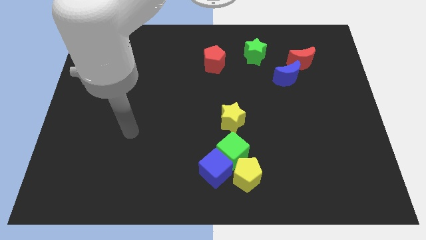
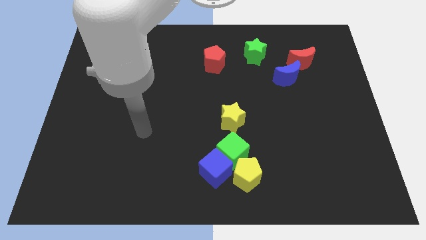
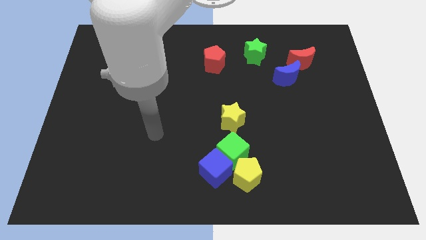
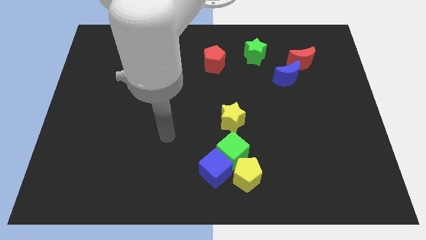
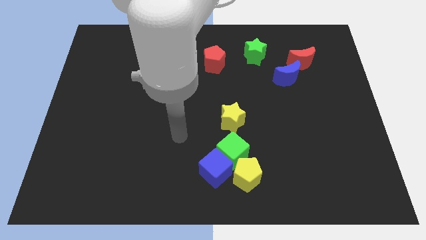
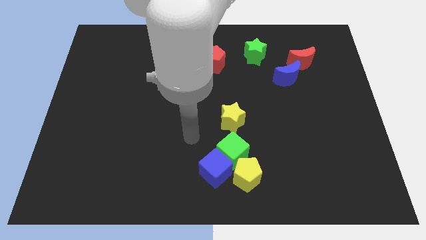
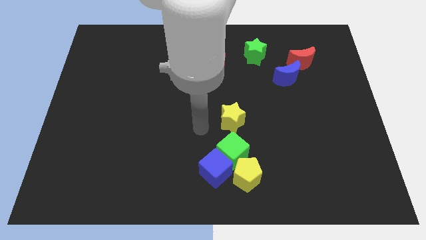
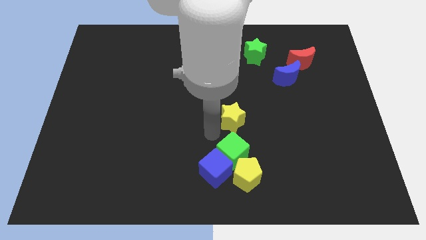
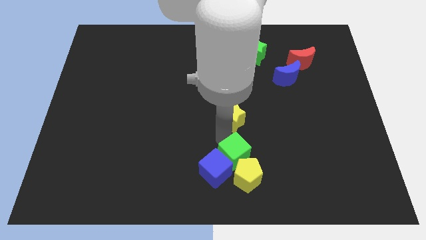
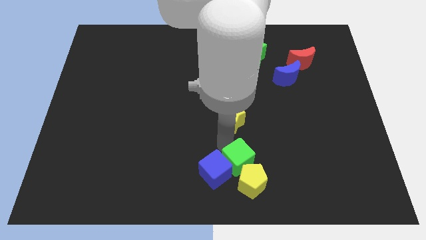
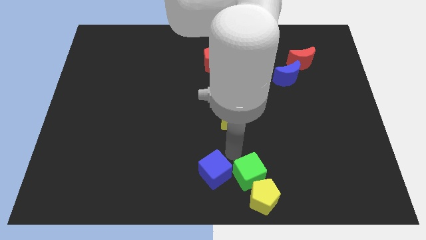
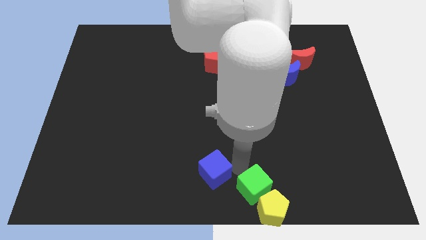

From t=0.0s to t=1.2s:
pull the blue cube apart from the green cube and yellow pentagon

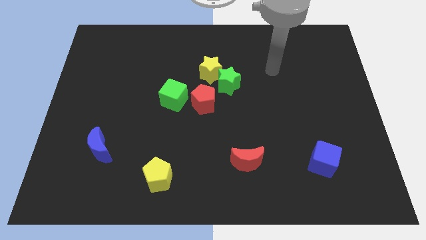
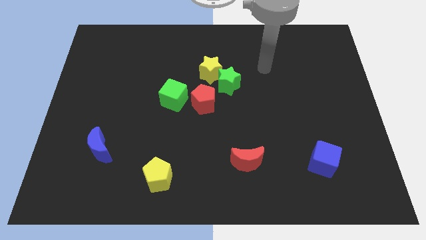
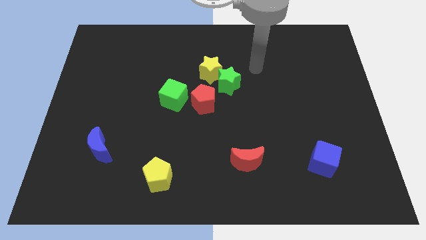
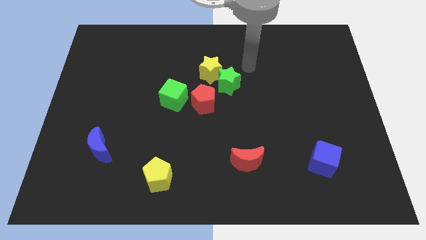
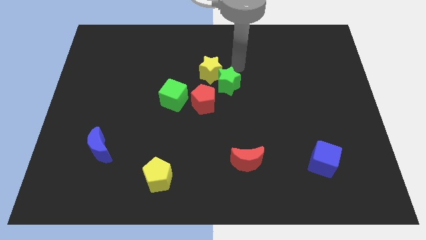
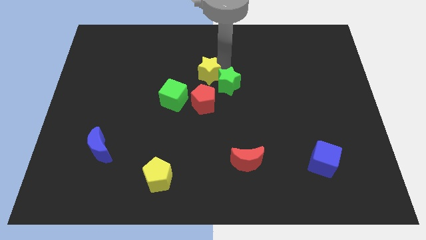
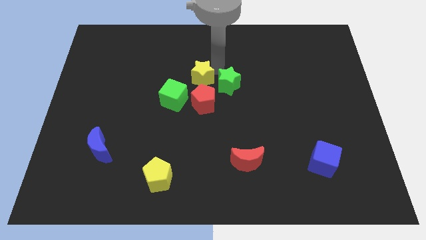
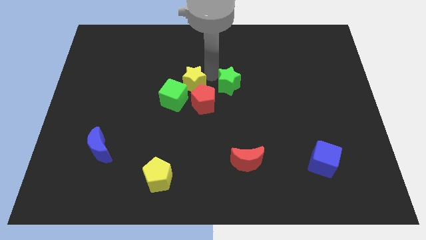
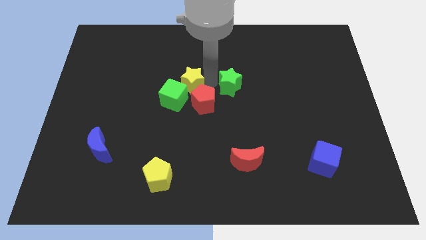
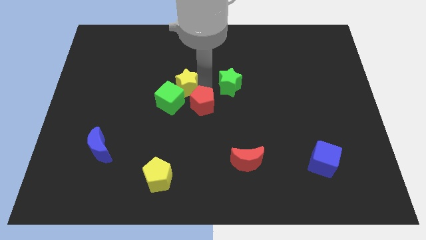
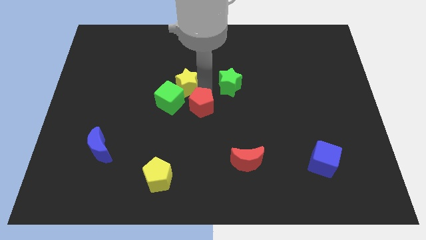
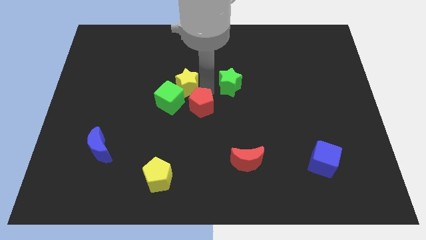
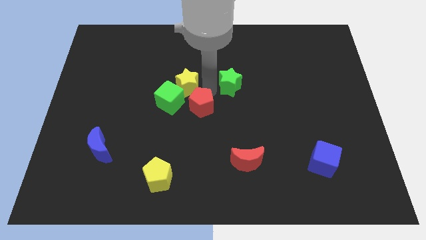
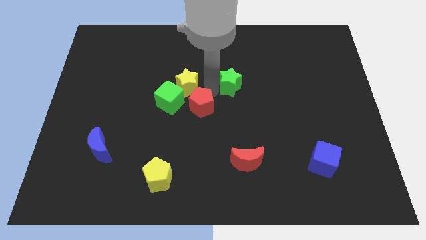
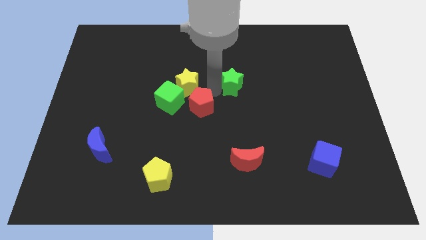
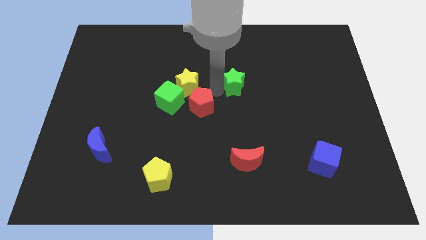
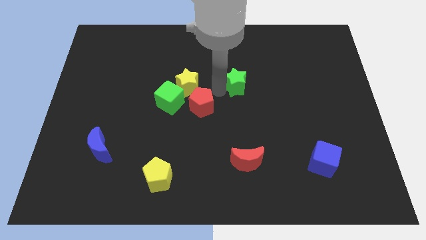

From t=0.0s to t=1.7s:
pull the green star apart from the yellow star and red pentagon

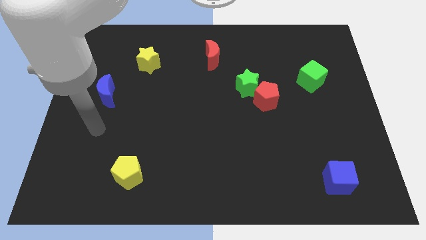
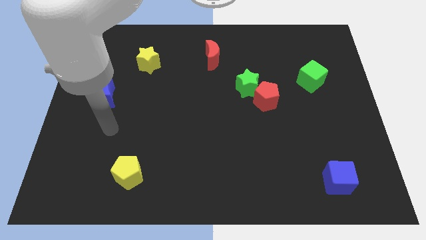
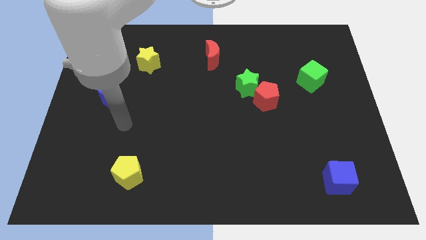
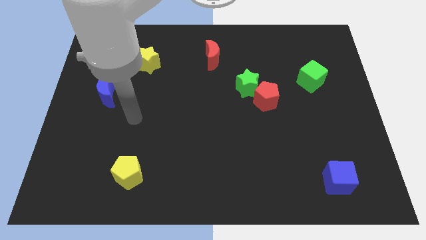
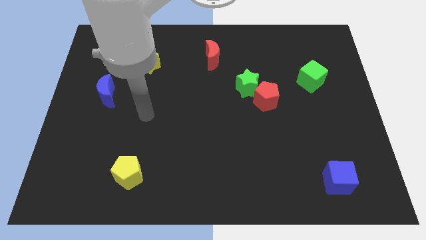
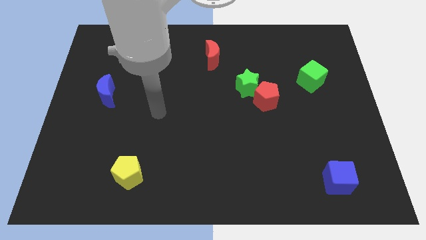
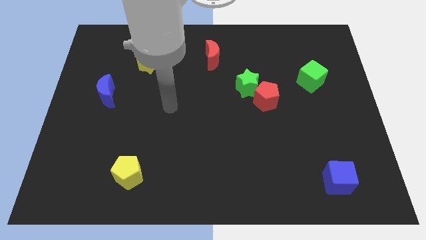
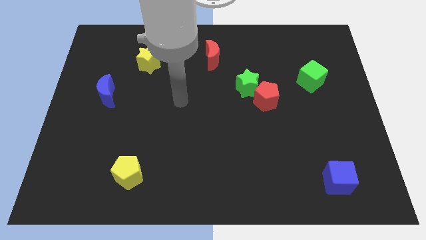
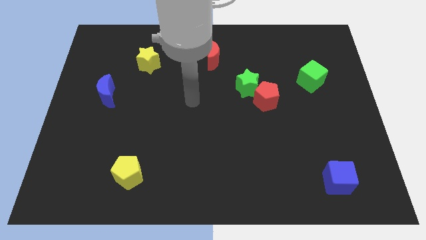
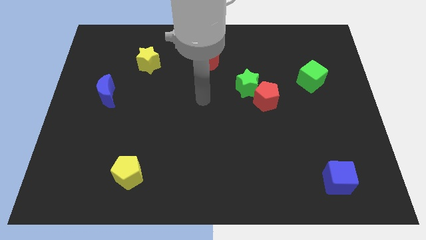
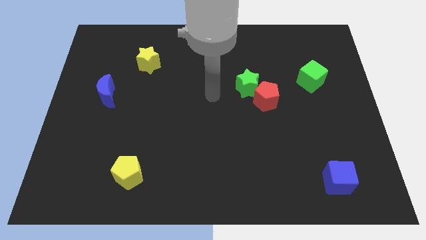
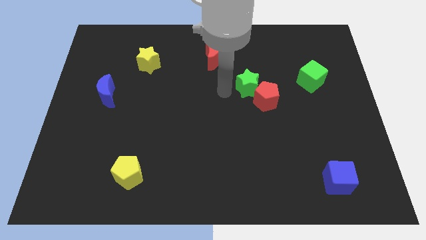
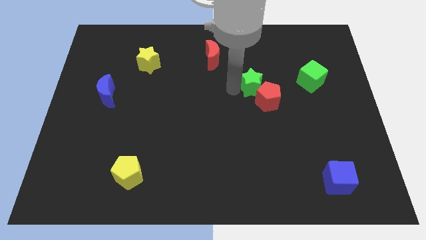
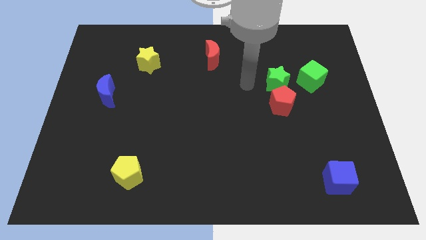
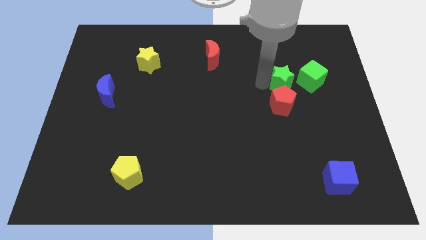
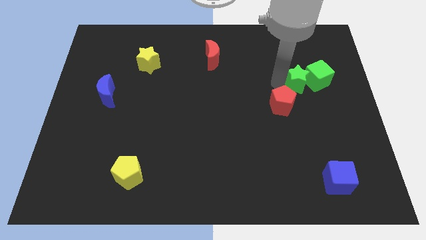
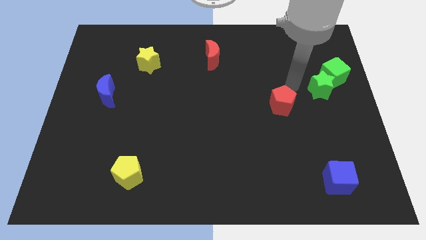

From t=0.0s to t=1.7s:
move the red pentagon away from the green star

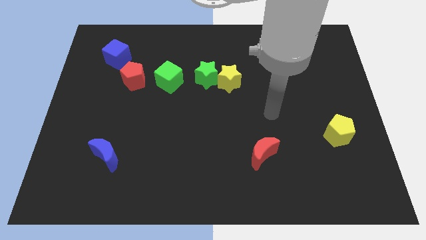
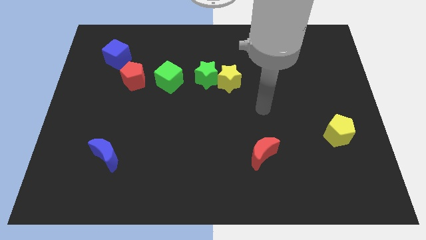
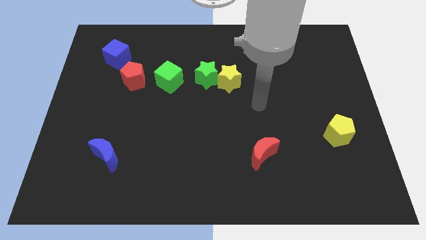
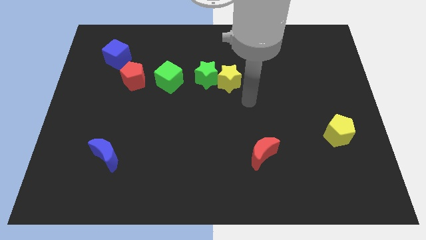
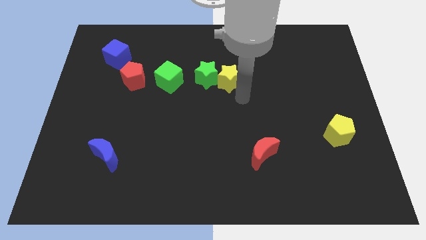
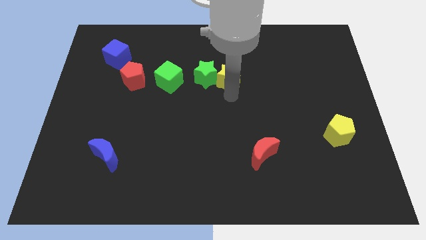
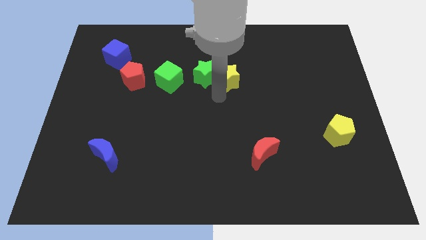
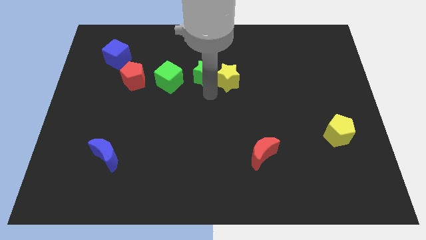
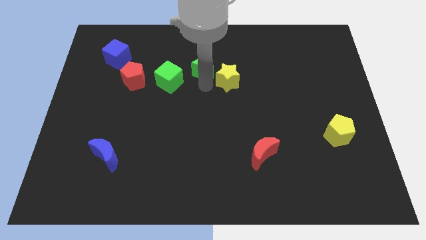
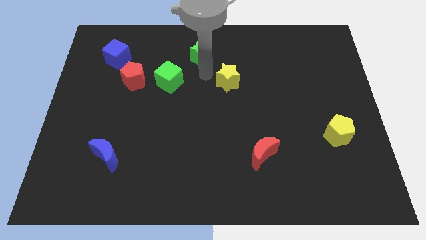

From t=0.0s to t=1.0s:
move the yellow star away from the green star

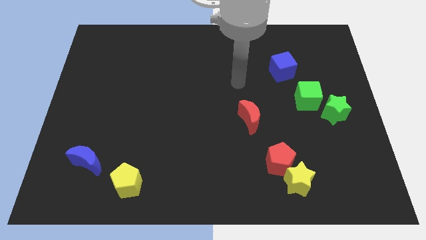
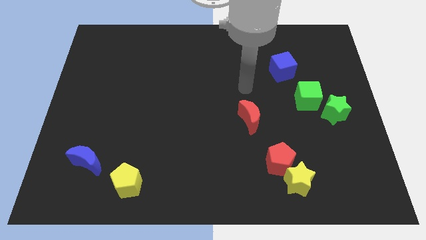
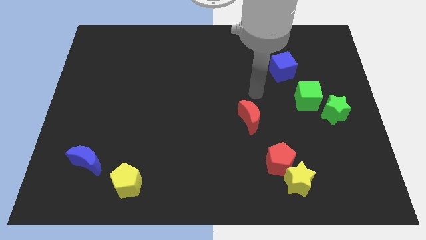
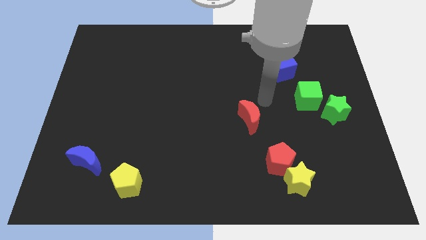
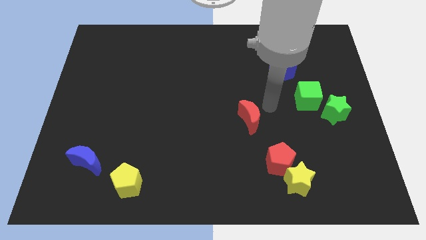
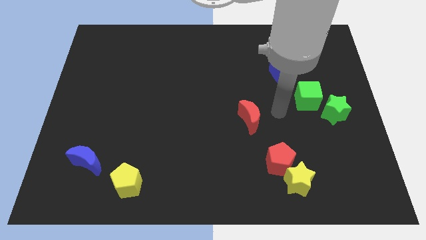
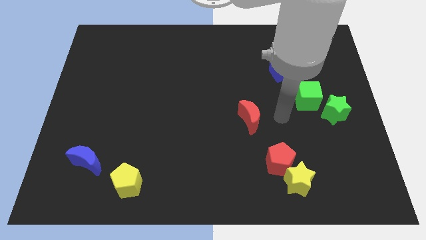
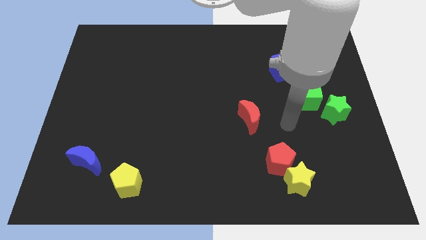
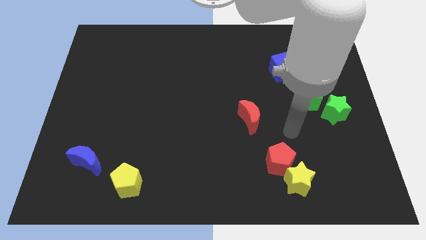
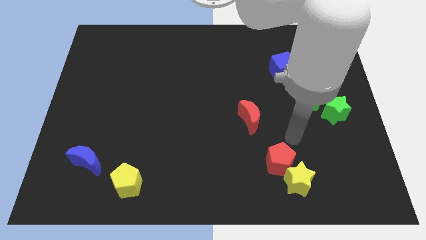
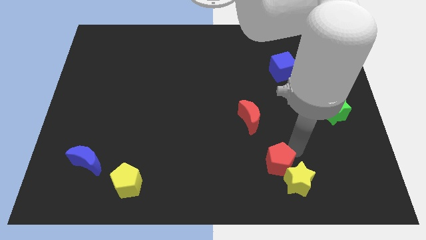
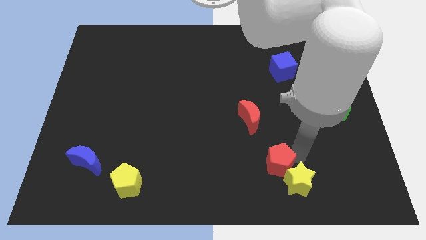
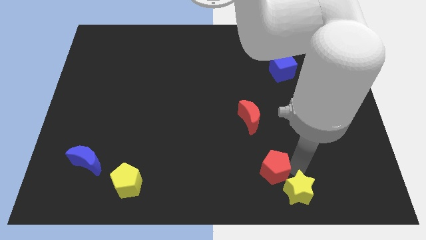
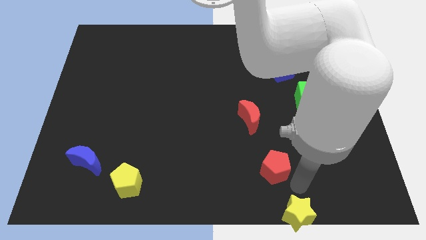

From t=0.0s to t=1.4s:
pull the red pentagon apart from the yellow star

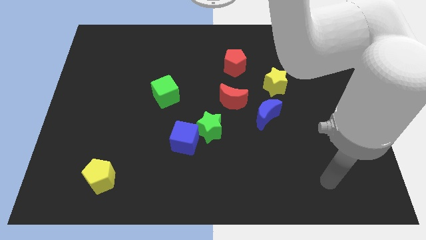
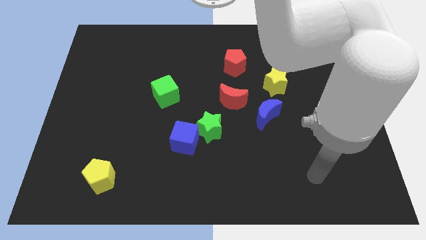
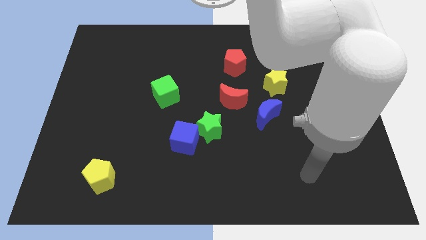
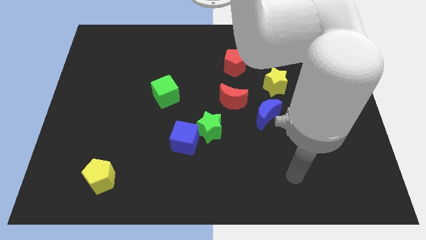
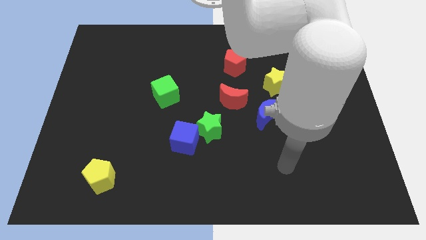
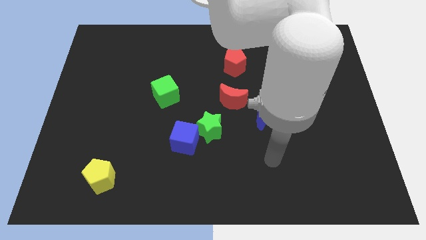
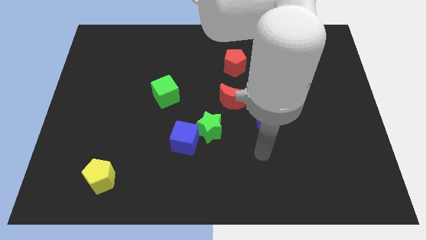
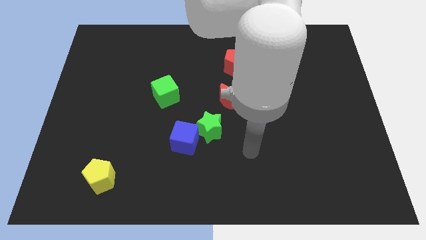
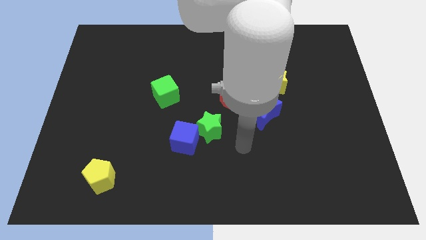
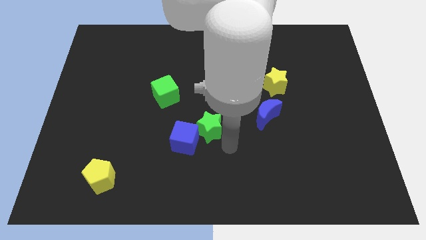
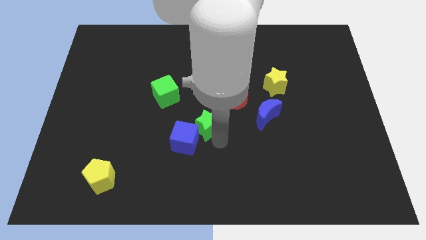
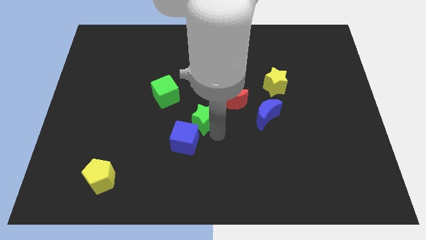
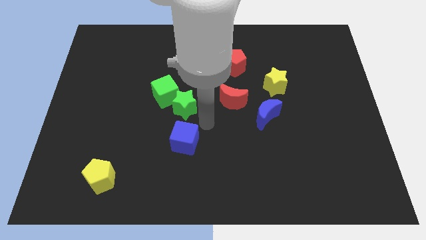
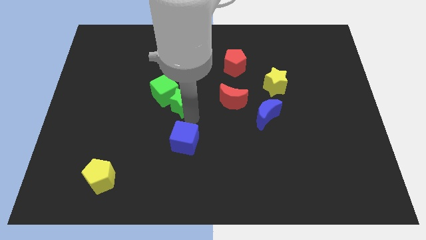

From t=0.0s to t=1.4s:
separate the blue cube from the green star

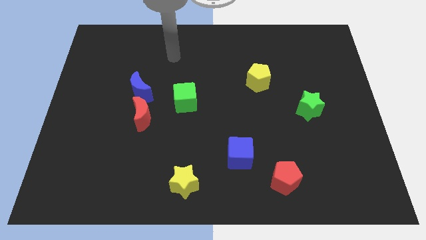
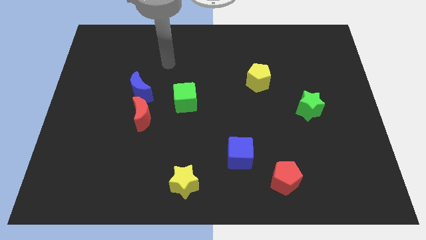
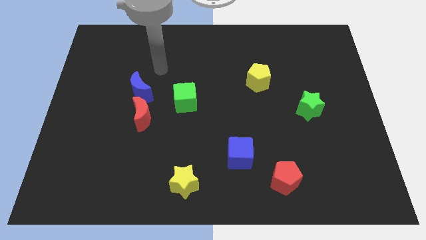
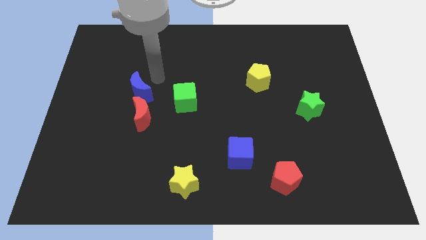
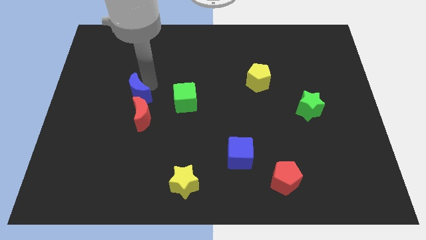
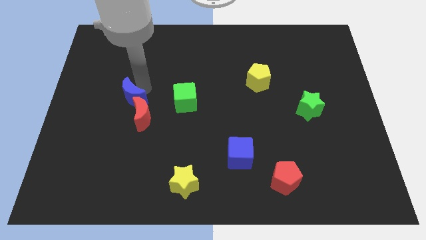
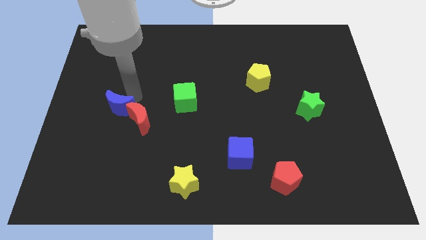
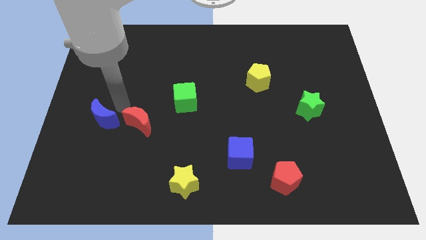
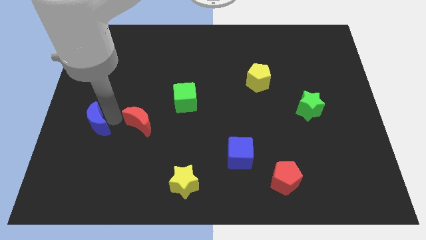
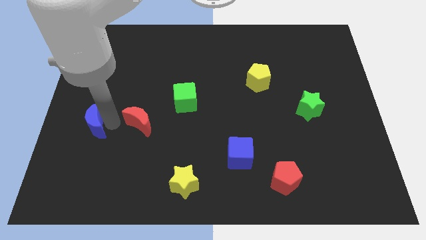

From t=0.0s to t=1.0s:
separate the red moon from the blue moon

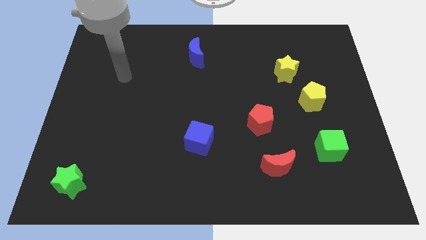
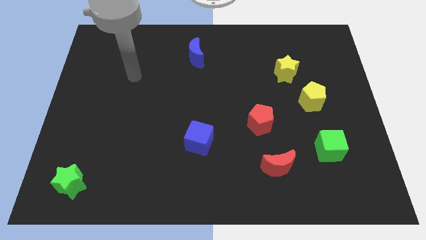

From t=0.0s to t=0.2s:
separate the yellow star from the yellow pentagon
